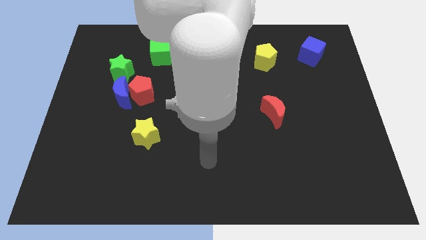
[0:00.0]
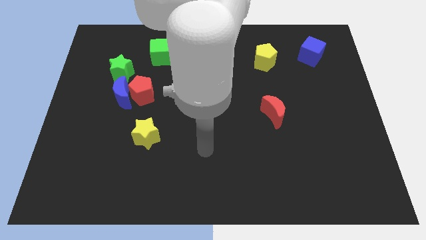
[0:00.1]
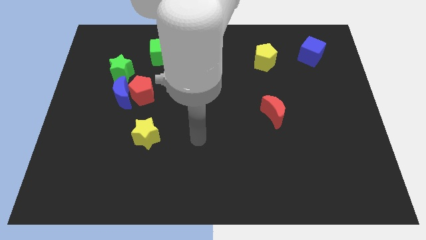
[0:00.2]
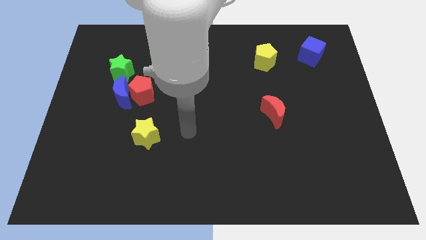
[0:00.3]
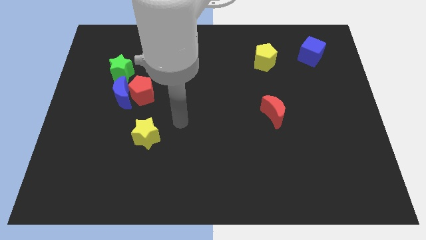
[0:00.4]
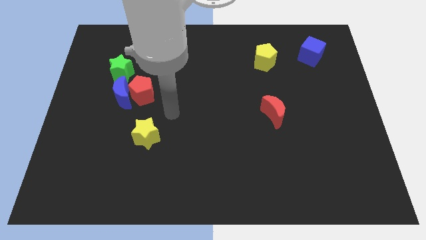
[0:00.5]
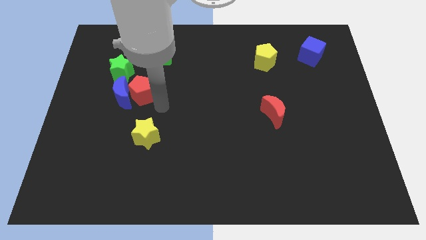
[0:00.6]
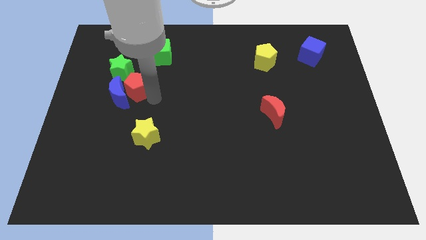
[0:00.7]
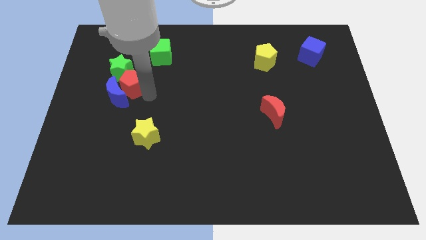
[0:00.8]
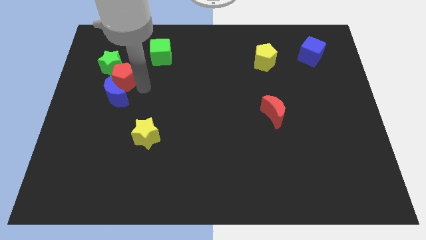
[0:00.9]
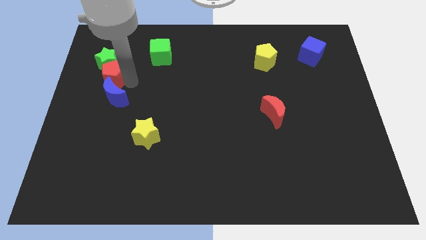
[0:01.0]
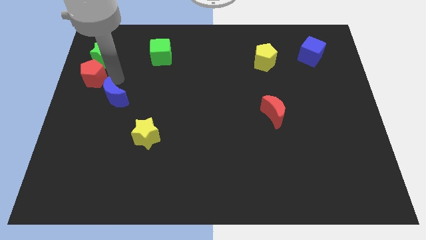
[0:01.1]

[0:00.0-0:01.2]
pull the blue moon apart from the red pentagon and green star

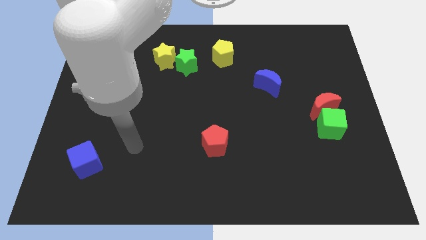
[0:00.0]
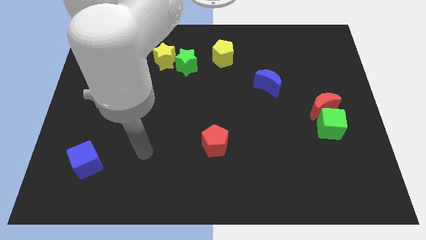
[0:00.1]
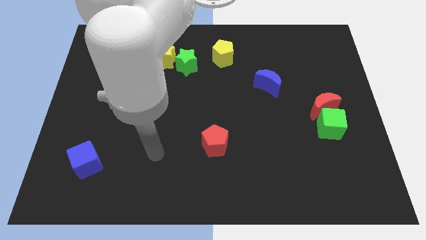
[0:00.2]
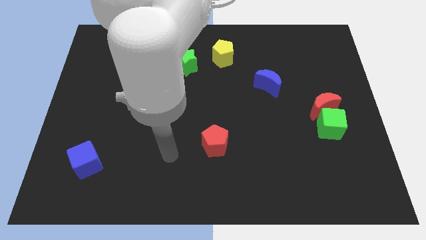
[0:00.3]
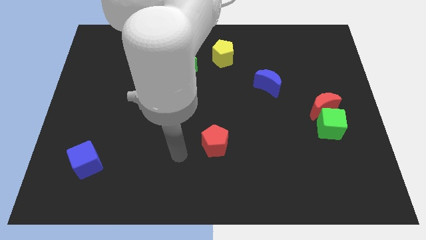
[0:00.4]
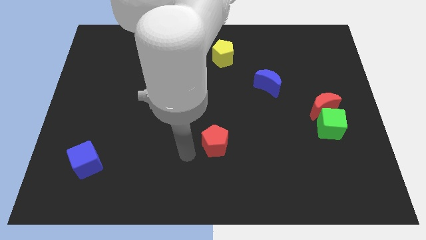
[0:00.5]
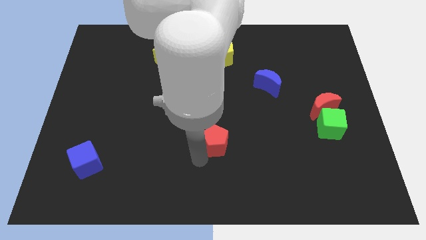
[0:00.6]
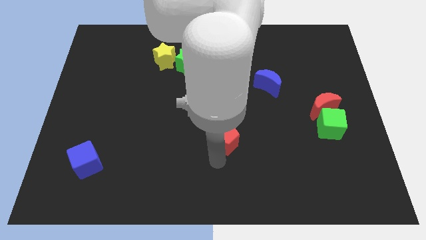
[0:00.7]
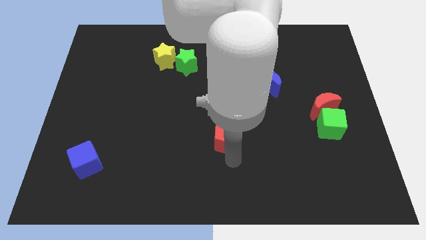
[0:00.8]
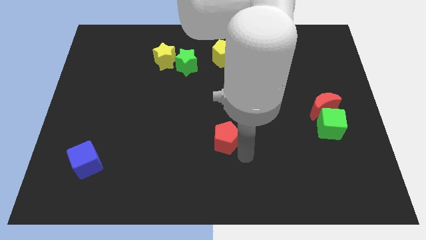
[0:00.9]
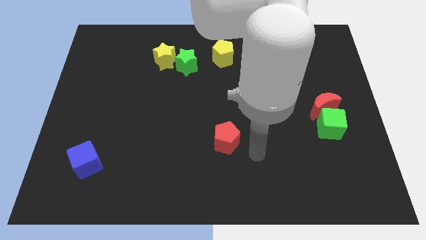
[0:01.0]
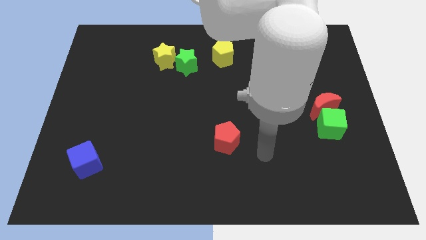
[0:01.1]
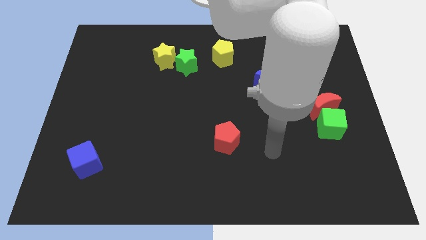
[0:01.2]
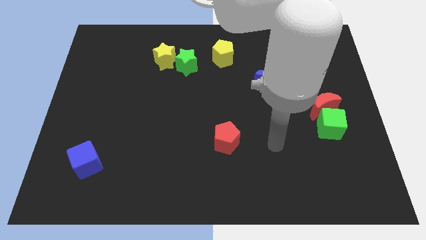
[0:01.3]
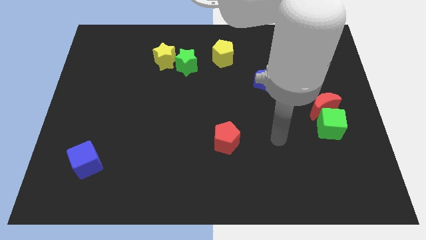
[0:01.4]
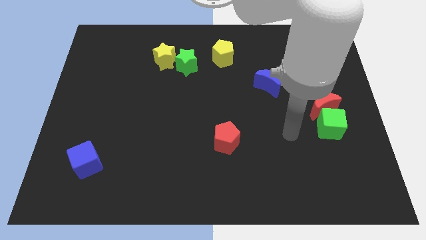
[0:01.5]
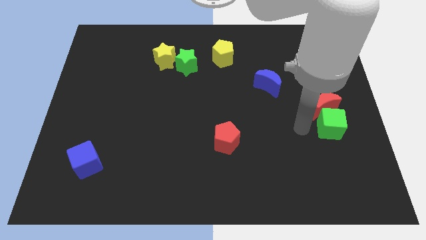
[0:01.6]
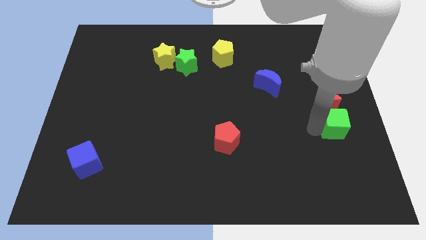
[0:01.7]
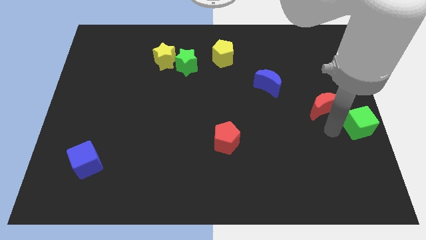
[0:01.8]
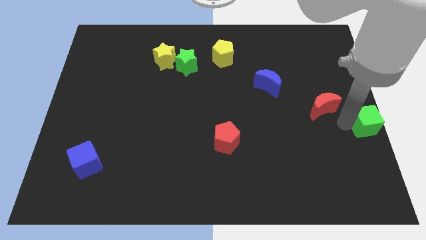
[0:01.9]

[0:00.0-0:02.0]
separate the red moon from the green cube

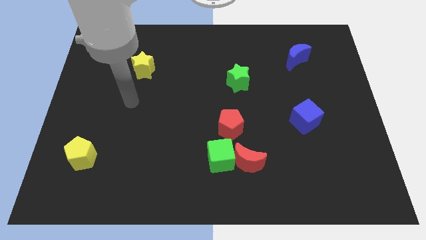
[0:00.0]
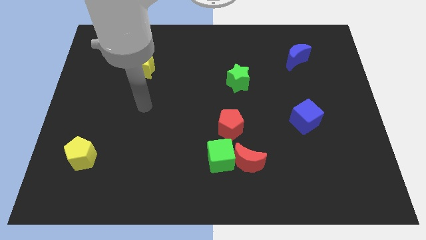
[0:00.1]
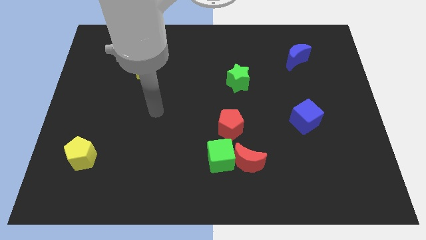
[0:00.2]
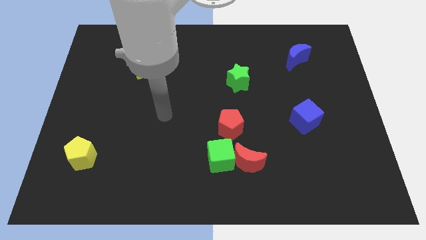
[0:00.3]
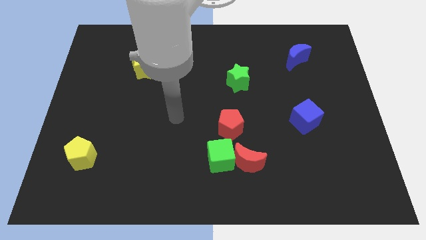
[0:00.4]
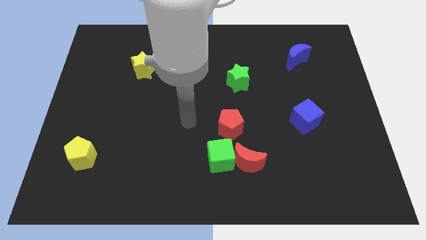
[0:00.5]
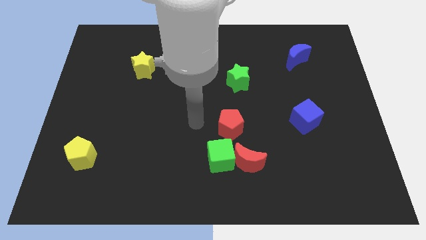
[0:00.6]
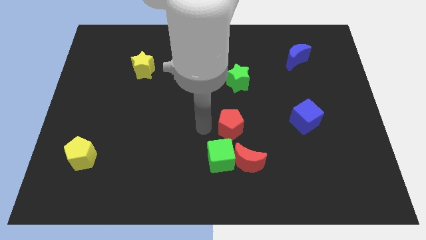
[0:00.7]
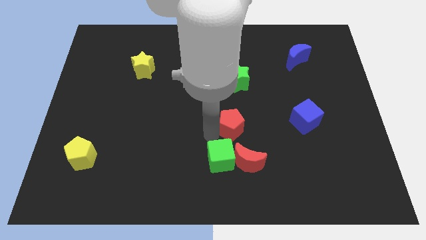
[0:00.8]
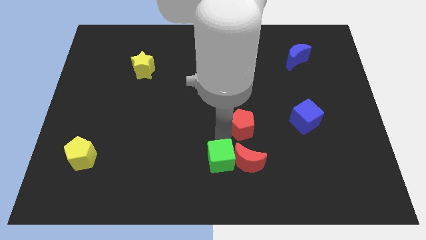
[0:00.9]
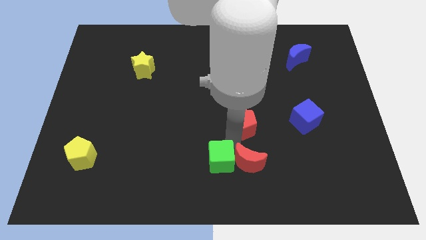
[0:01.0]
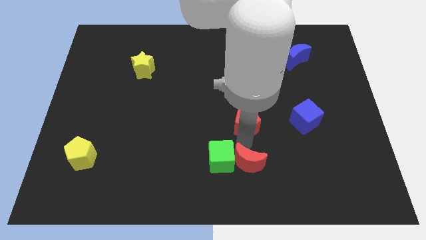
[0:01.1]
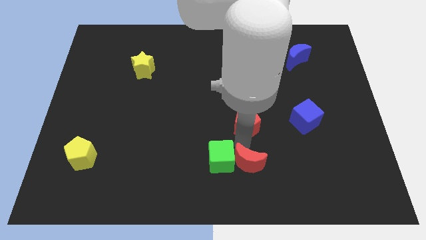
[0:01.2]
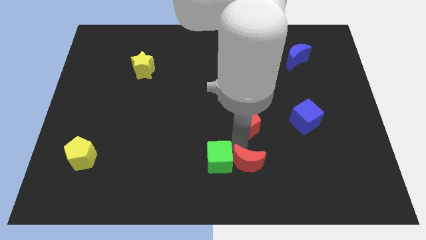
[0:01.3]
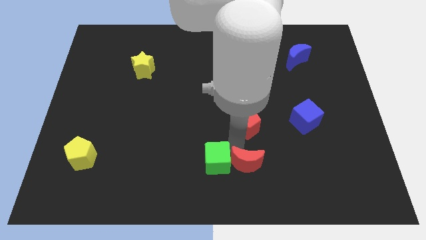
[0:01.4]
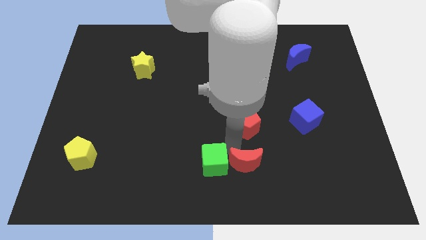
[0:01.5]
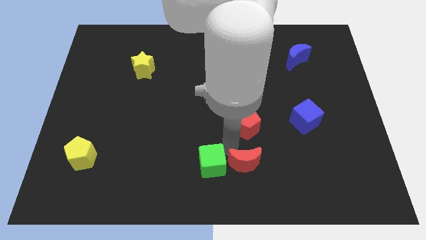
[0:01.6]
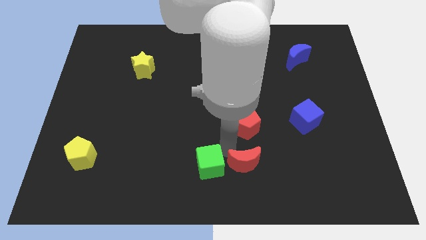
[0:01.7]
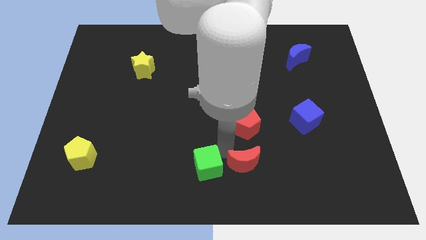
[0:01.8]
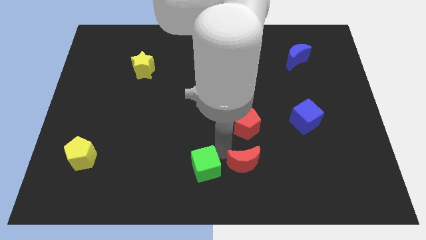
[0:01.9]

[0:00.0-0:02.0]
move the green cube away from the red moon and red pentagon

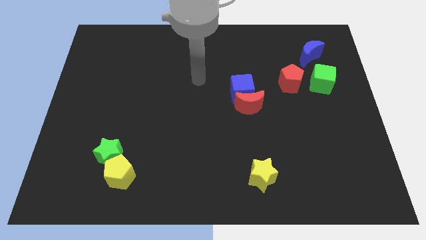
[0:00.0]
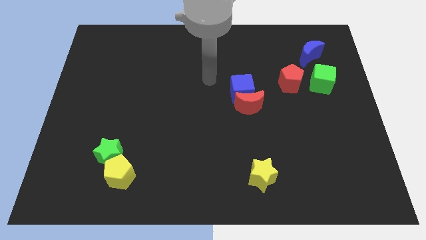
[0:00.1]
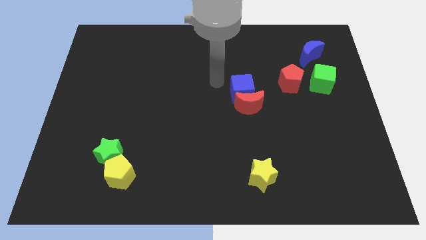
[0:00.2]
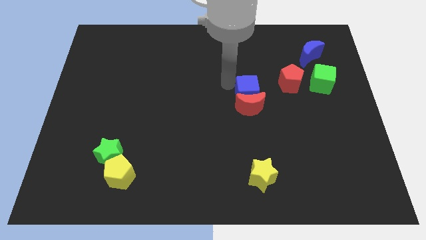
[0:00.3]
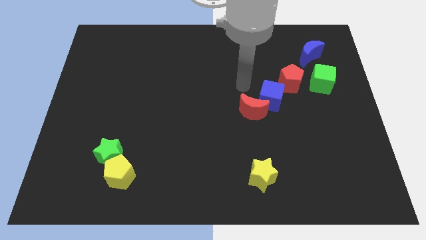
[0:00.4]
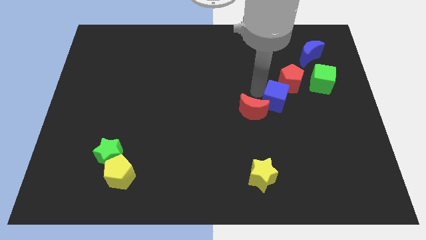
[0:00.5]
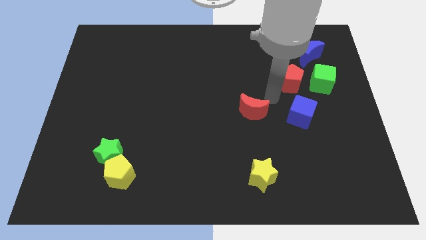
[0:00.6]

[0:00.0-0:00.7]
move the red moon away from the blue cube

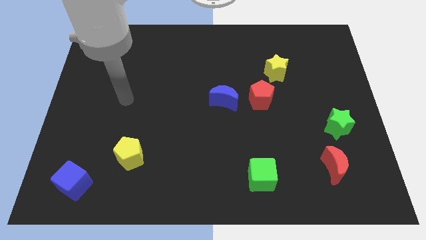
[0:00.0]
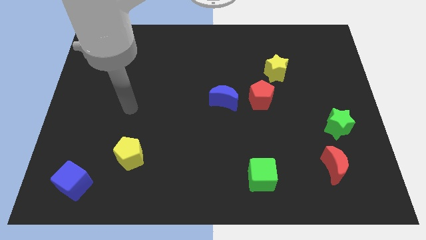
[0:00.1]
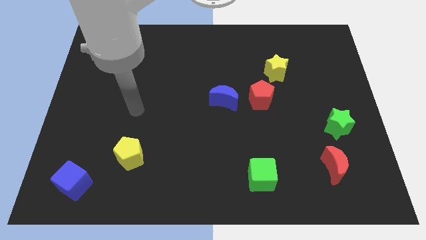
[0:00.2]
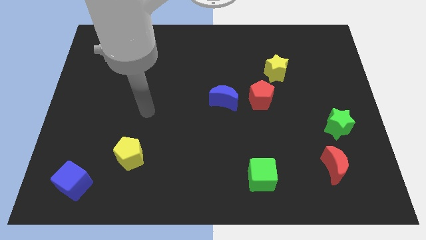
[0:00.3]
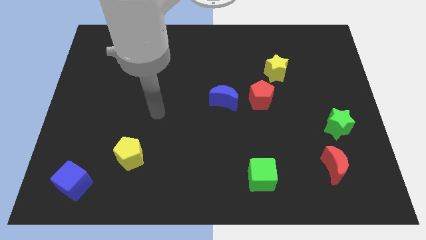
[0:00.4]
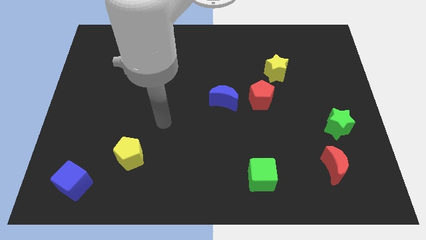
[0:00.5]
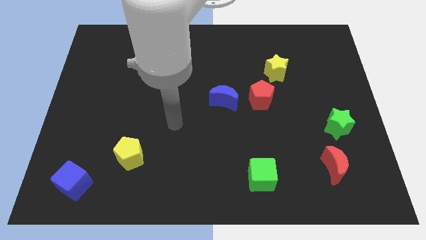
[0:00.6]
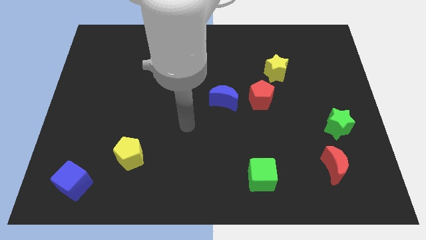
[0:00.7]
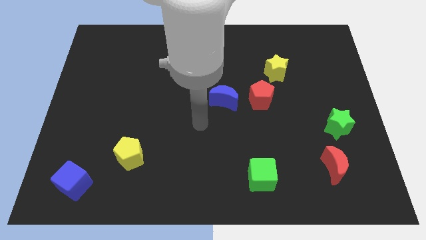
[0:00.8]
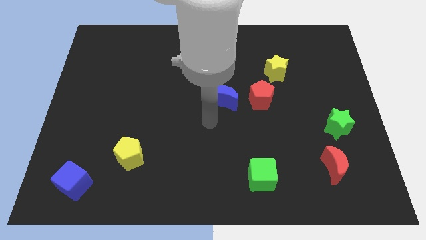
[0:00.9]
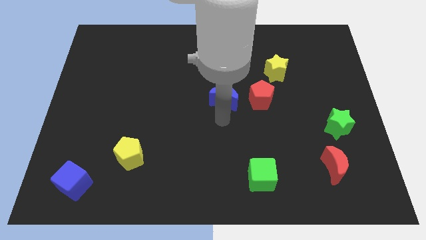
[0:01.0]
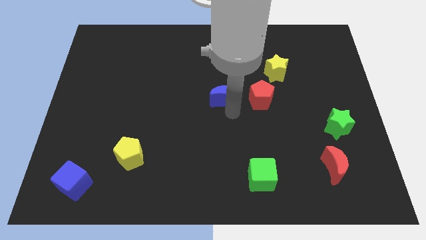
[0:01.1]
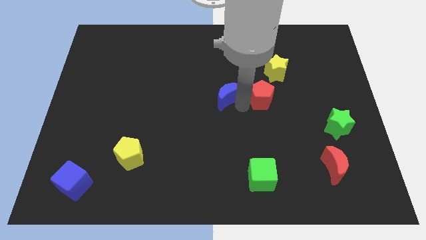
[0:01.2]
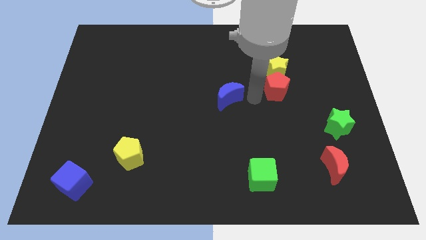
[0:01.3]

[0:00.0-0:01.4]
move the blue moon away from the red pentagon

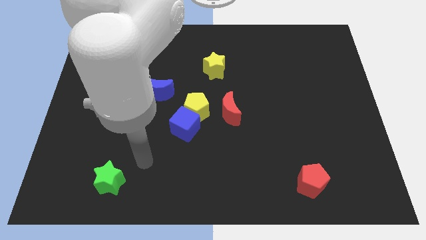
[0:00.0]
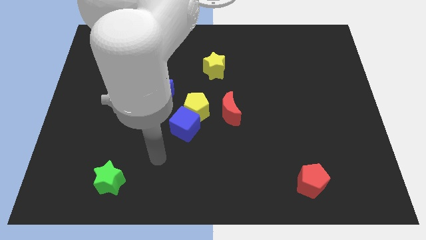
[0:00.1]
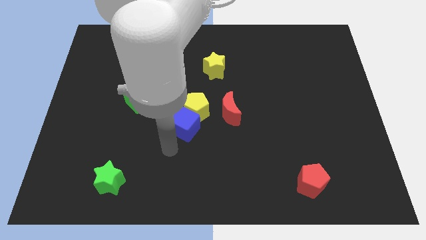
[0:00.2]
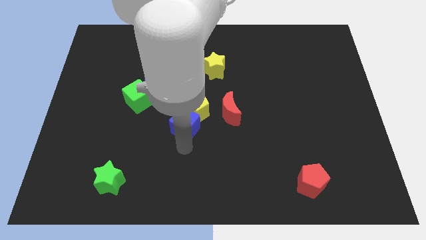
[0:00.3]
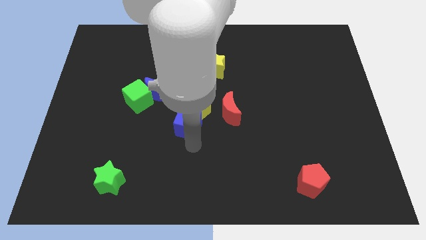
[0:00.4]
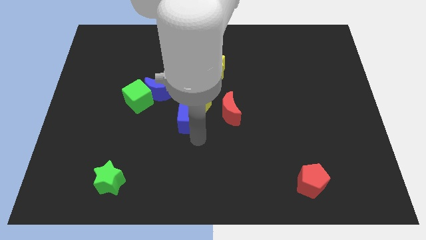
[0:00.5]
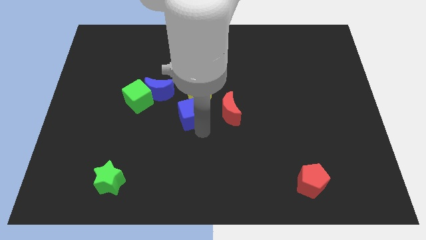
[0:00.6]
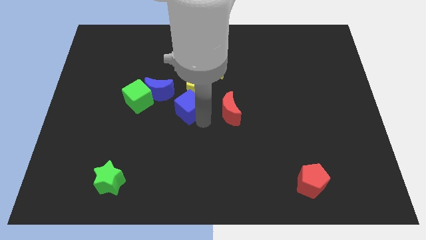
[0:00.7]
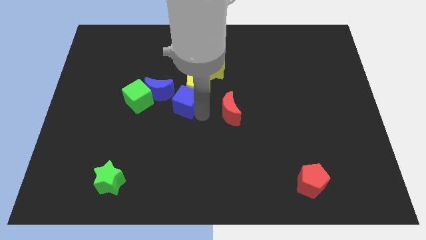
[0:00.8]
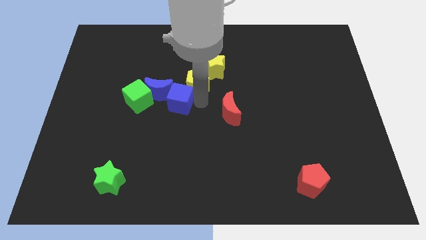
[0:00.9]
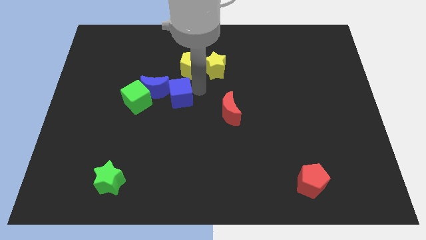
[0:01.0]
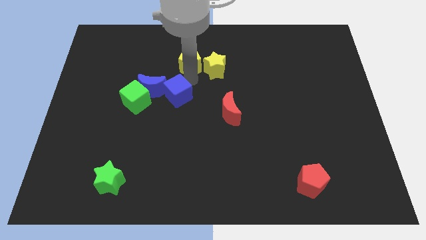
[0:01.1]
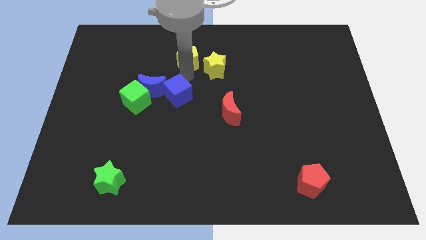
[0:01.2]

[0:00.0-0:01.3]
pull the blue cube apart from the yellow pentagon

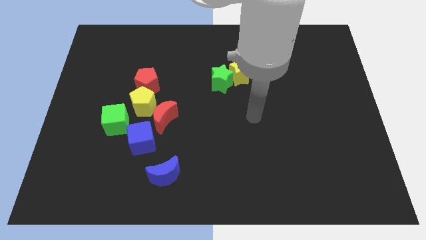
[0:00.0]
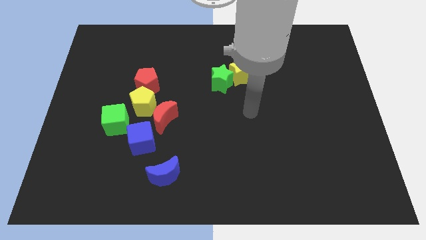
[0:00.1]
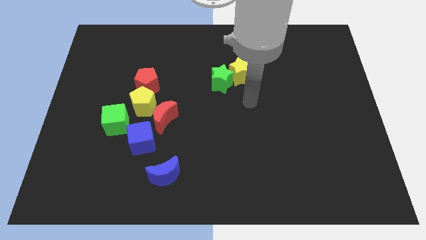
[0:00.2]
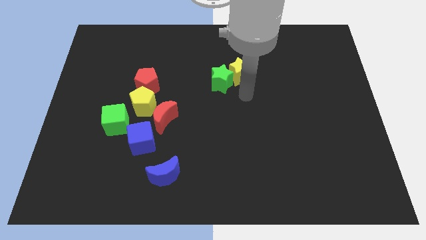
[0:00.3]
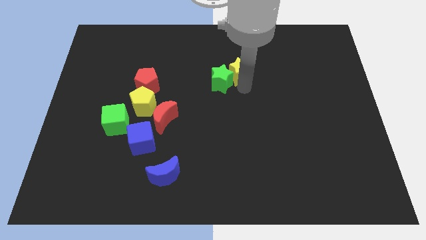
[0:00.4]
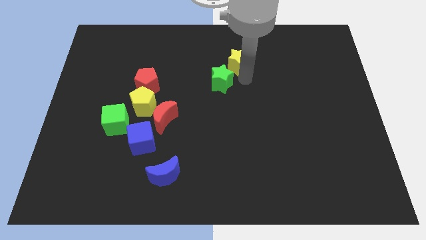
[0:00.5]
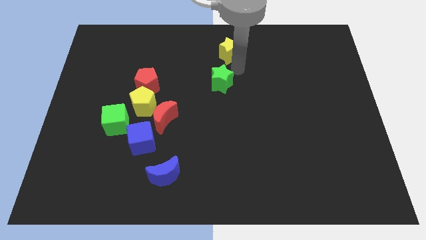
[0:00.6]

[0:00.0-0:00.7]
pull the green star apart from the yellow star
